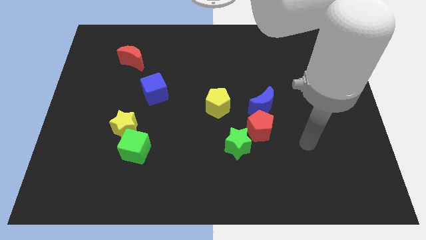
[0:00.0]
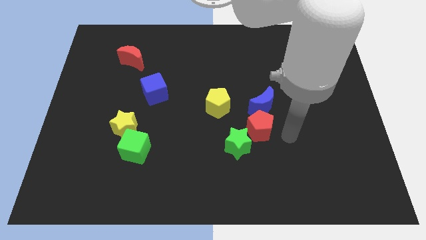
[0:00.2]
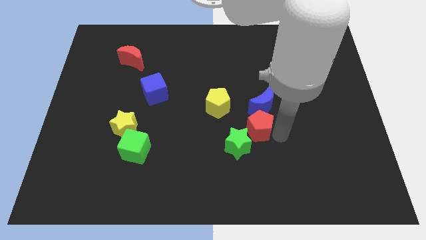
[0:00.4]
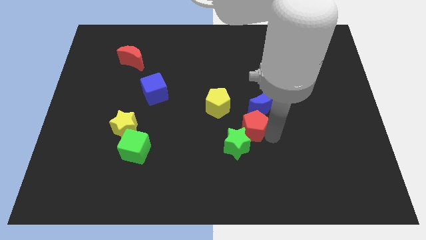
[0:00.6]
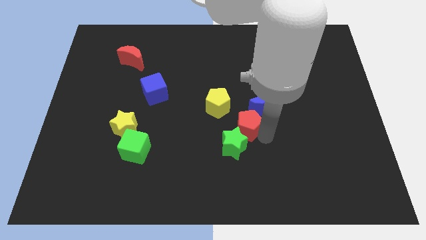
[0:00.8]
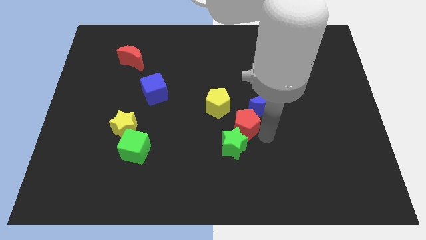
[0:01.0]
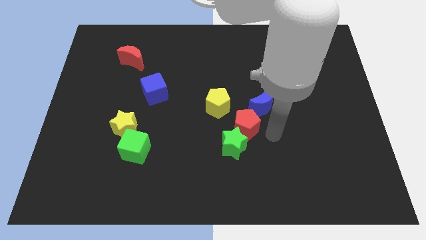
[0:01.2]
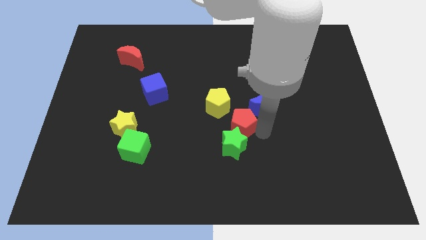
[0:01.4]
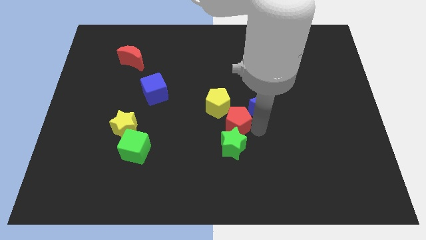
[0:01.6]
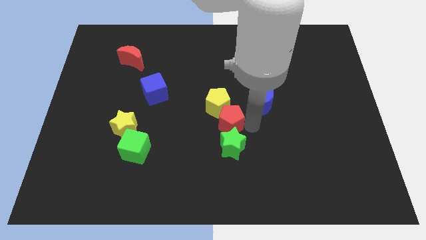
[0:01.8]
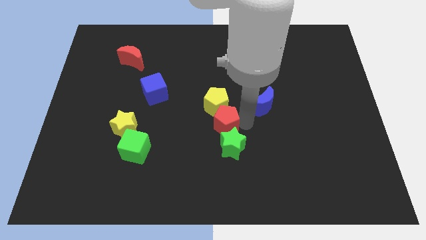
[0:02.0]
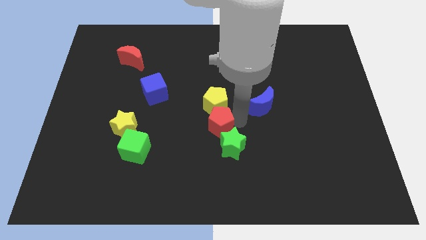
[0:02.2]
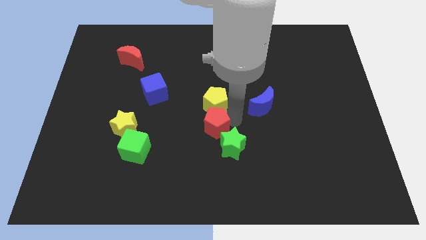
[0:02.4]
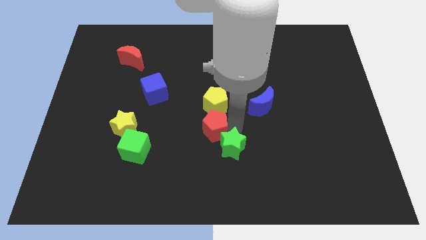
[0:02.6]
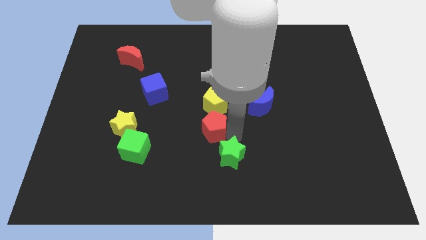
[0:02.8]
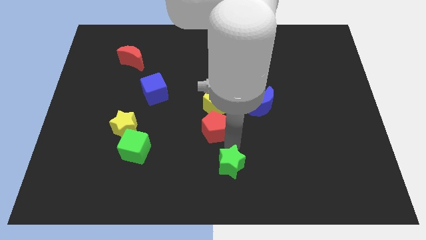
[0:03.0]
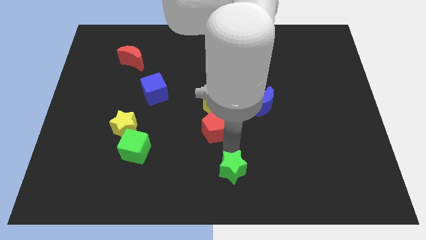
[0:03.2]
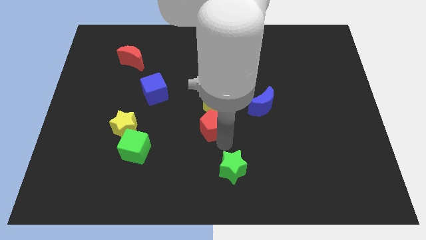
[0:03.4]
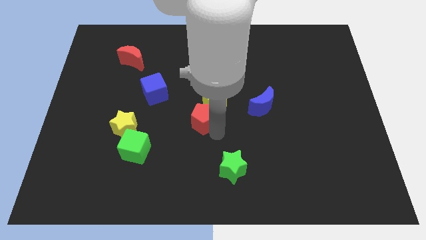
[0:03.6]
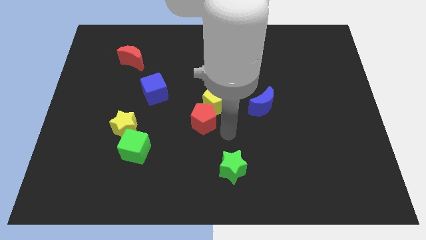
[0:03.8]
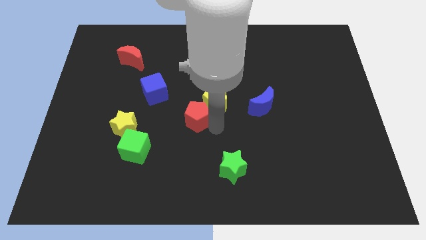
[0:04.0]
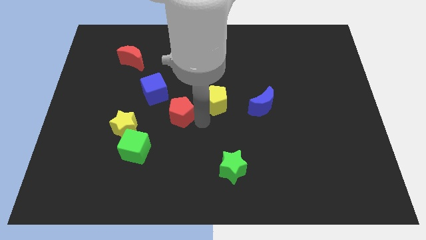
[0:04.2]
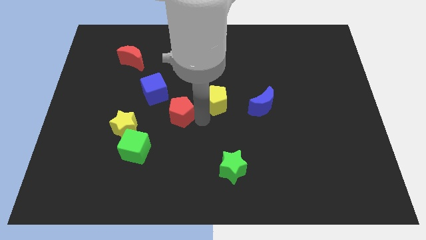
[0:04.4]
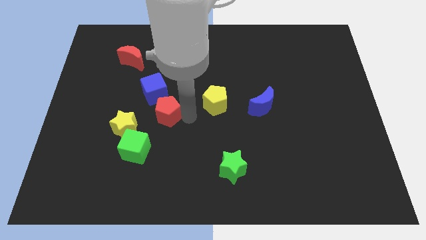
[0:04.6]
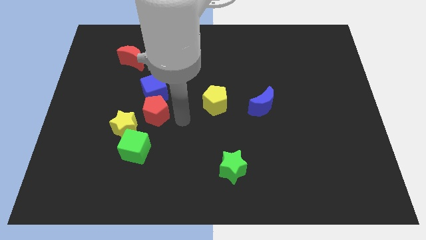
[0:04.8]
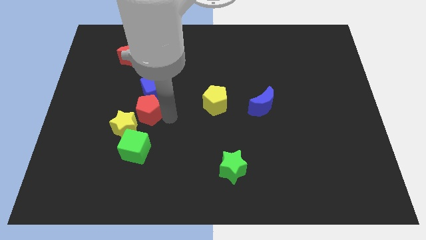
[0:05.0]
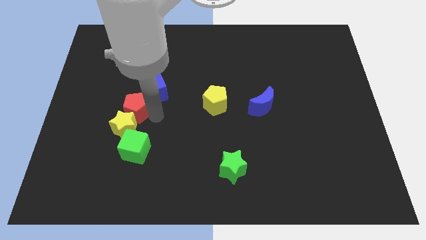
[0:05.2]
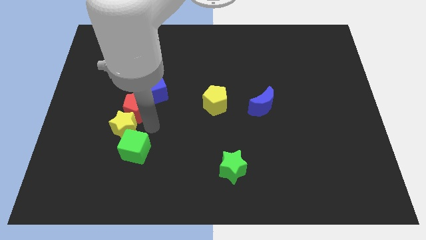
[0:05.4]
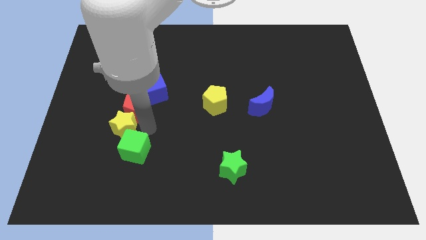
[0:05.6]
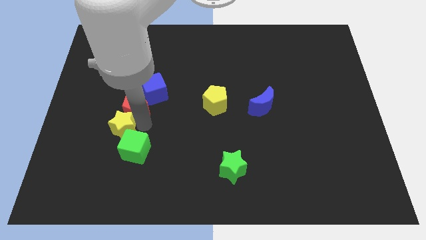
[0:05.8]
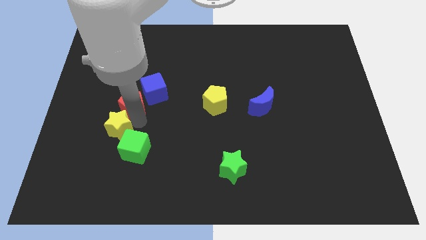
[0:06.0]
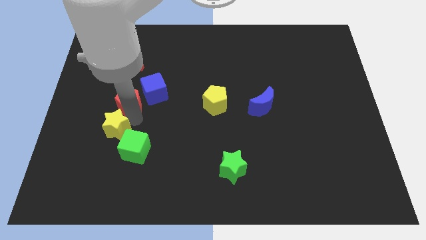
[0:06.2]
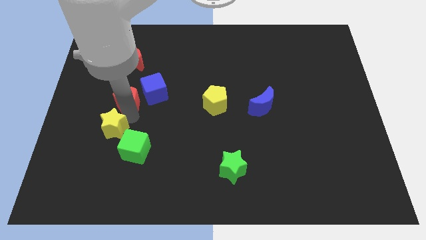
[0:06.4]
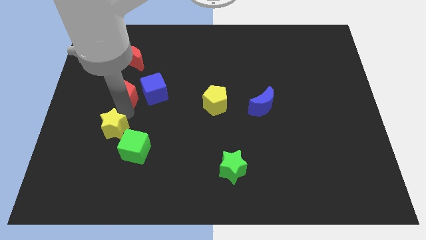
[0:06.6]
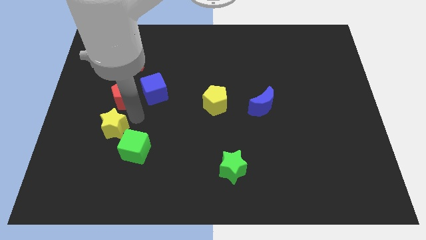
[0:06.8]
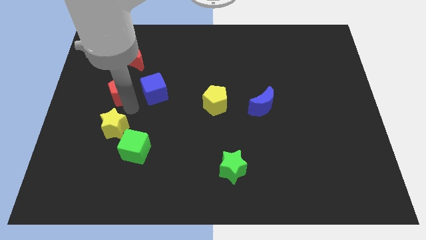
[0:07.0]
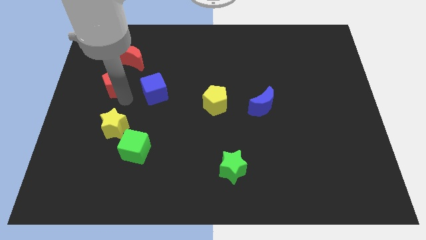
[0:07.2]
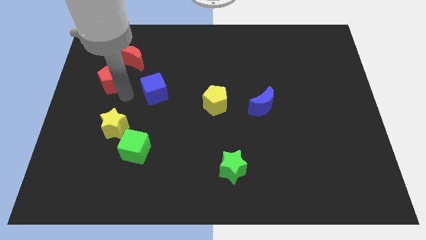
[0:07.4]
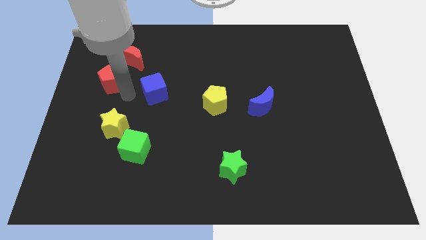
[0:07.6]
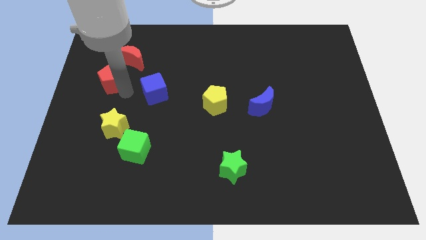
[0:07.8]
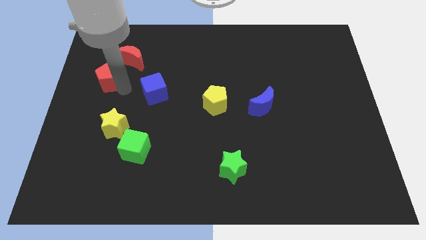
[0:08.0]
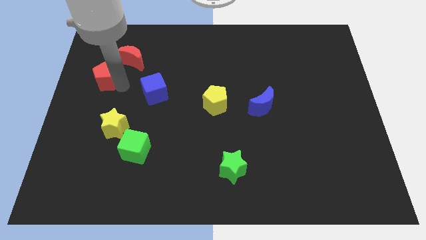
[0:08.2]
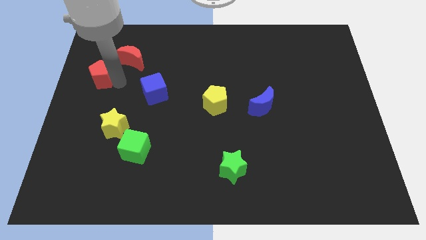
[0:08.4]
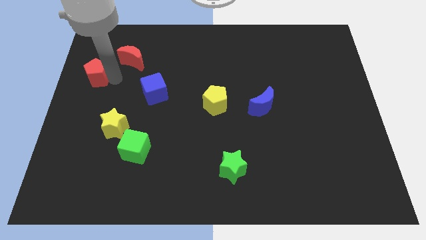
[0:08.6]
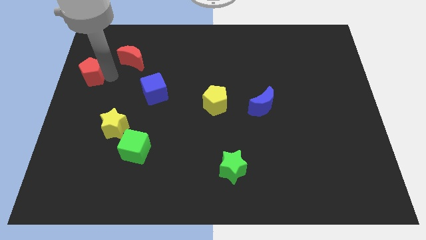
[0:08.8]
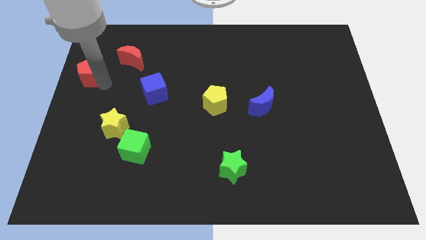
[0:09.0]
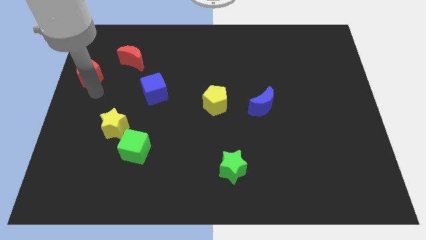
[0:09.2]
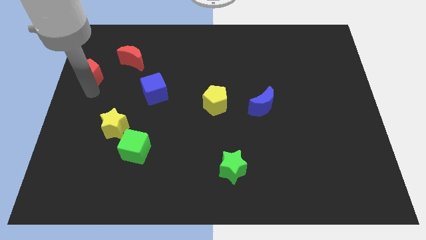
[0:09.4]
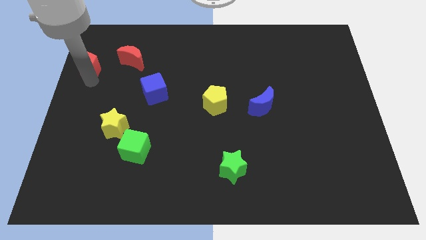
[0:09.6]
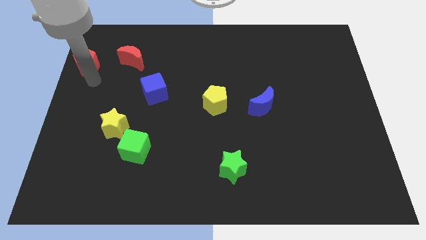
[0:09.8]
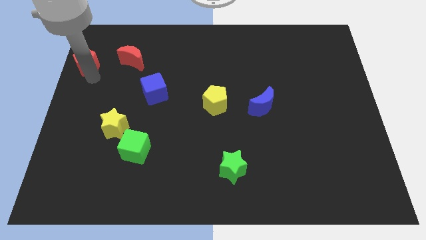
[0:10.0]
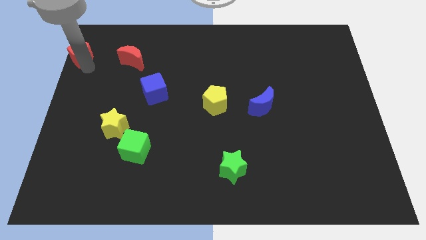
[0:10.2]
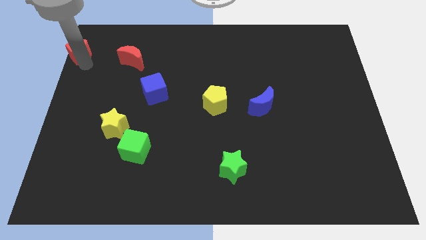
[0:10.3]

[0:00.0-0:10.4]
slide the red pentagon to the top left

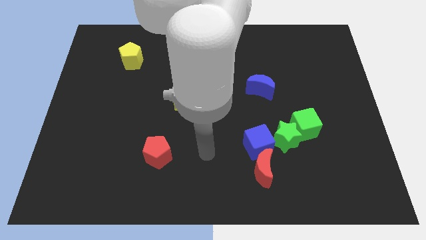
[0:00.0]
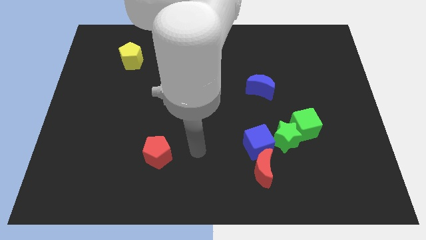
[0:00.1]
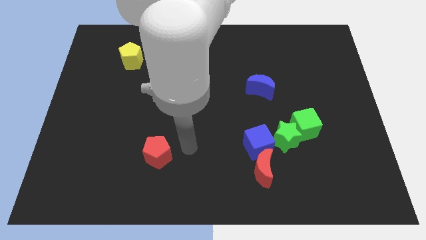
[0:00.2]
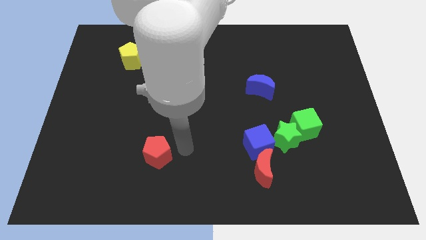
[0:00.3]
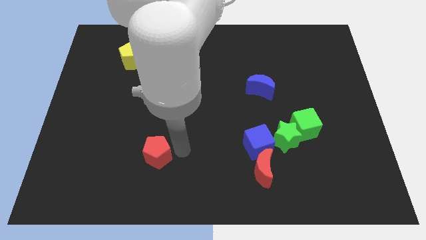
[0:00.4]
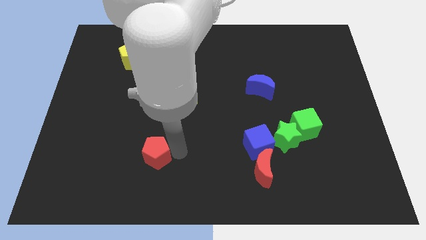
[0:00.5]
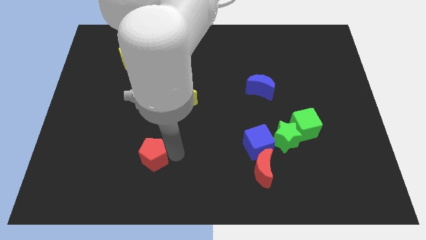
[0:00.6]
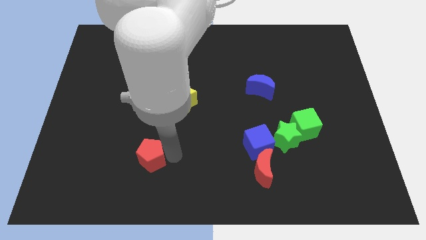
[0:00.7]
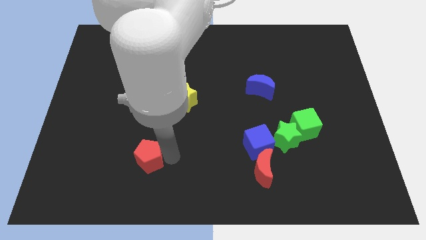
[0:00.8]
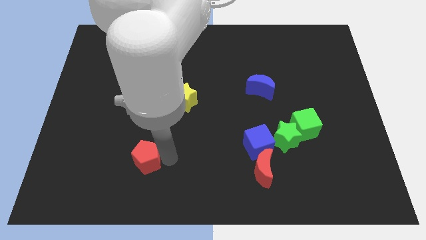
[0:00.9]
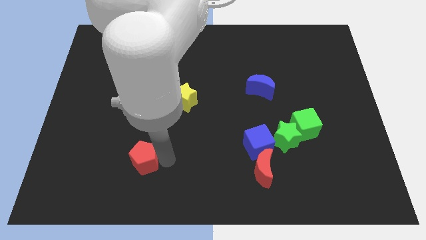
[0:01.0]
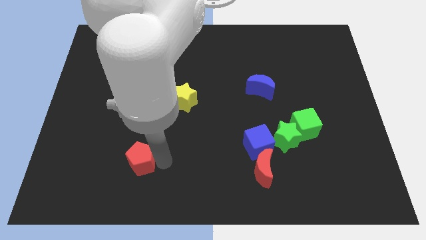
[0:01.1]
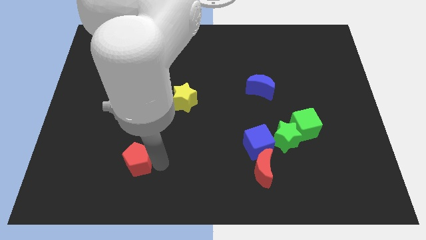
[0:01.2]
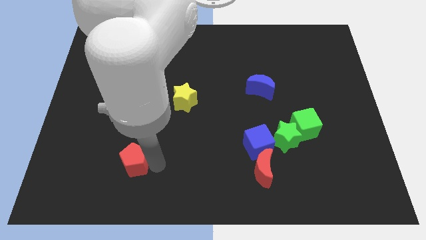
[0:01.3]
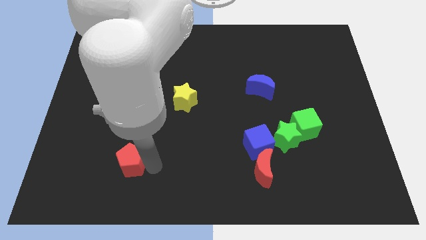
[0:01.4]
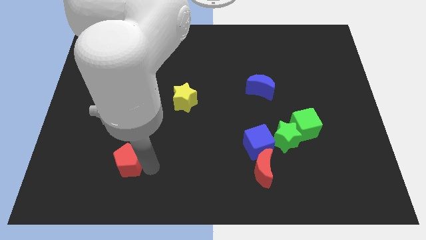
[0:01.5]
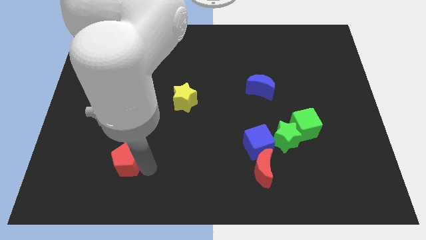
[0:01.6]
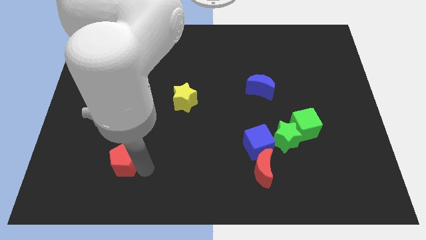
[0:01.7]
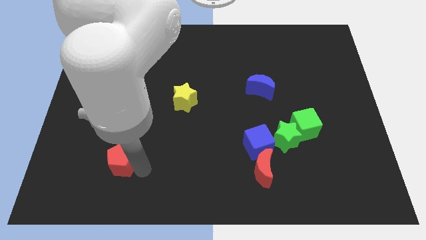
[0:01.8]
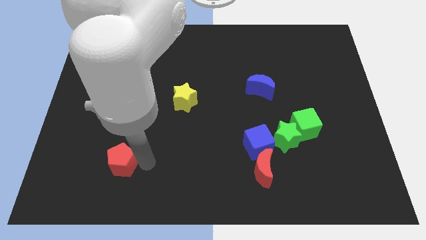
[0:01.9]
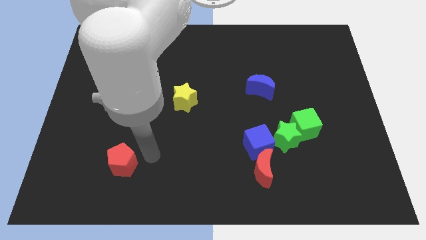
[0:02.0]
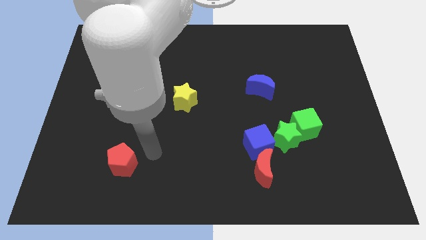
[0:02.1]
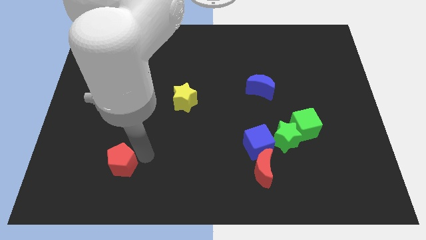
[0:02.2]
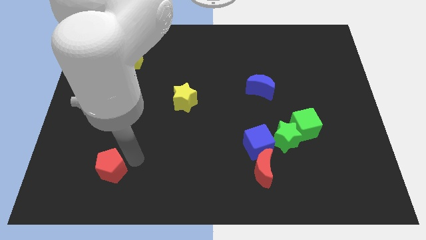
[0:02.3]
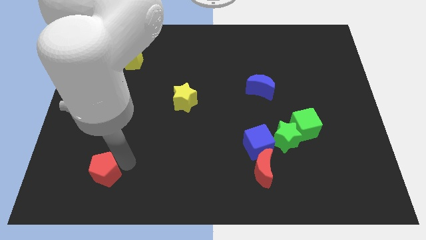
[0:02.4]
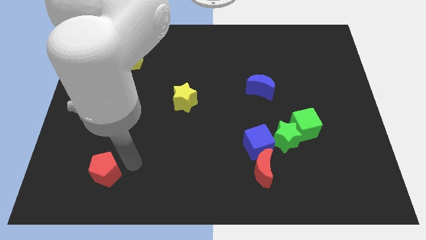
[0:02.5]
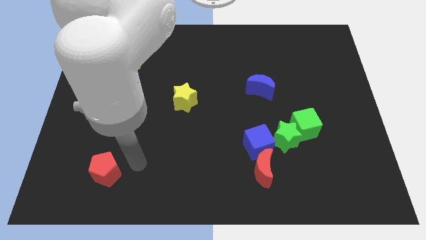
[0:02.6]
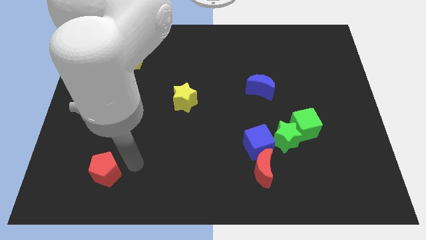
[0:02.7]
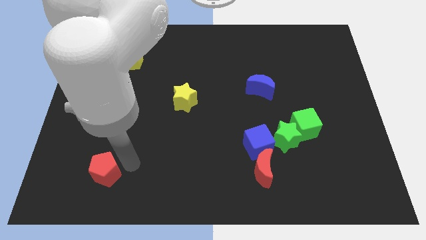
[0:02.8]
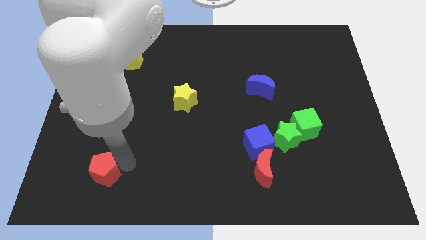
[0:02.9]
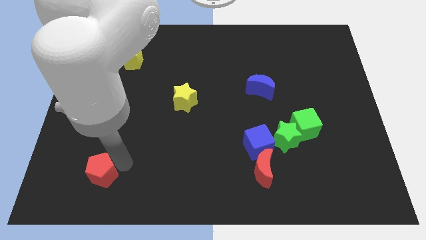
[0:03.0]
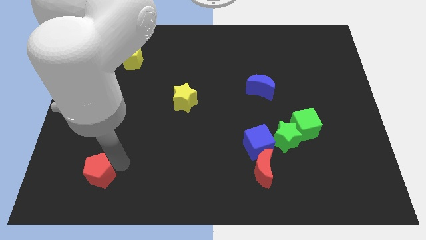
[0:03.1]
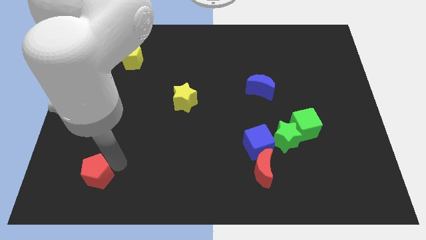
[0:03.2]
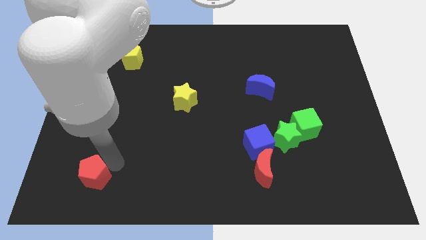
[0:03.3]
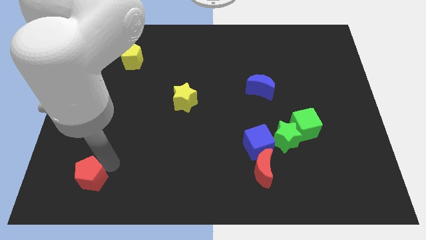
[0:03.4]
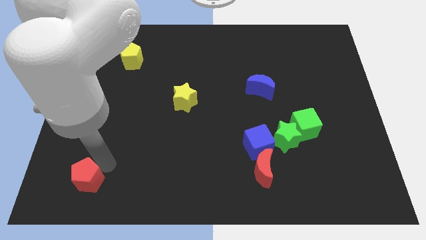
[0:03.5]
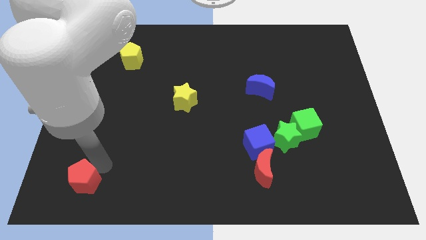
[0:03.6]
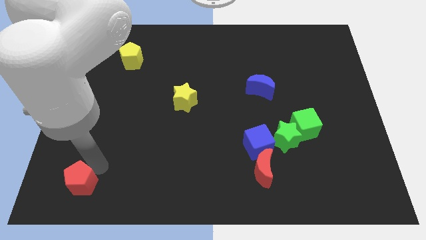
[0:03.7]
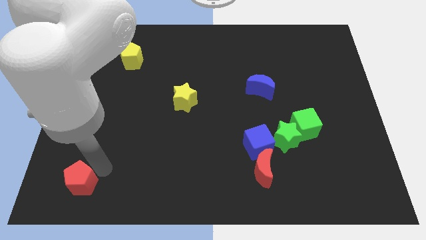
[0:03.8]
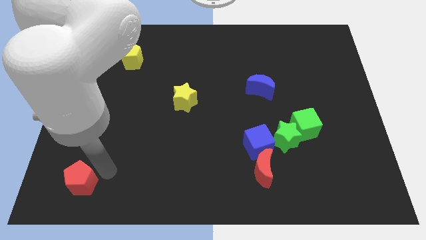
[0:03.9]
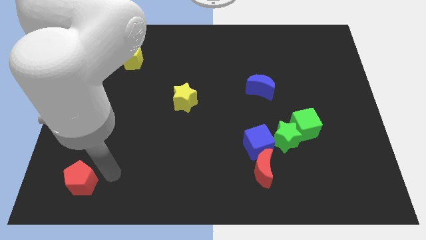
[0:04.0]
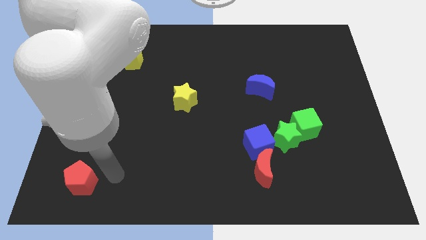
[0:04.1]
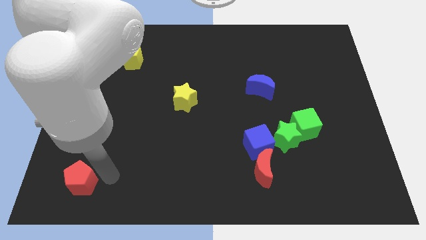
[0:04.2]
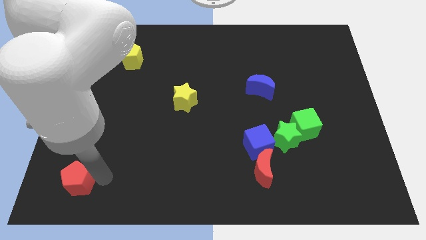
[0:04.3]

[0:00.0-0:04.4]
put the red pentagon to the bottom left of the board
